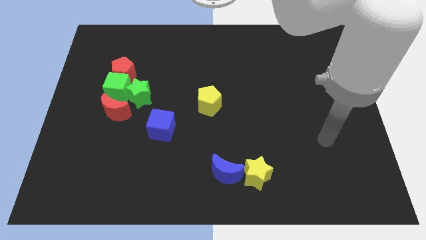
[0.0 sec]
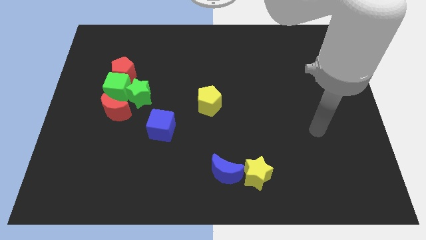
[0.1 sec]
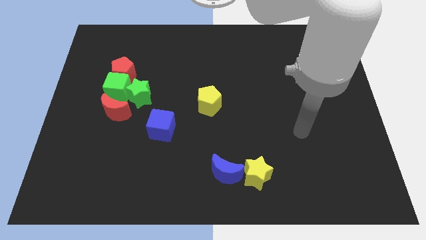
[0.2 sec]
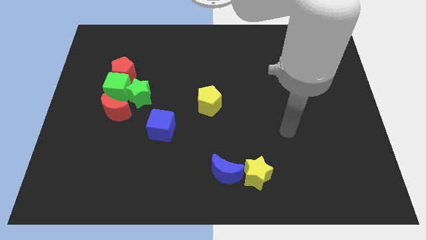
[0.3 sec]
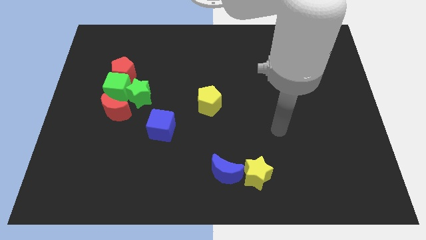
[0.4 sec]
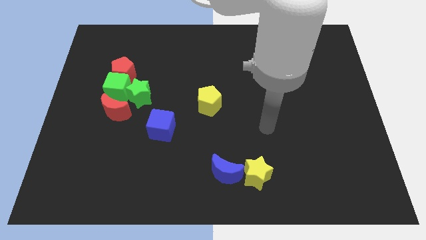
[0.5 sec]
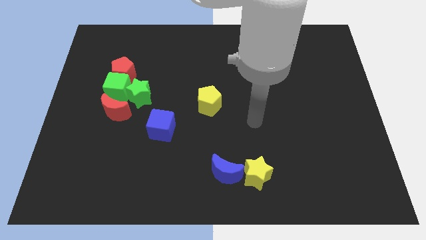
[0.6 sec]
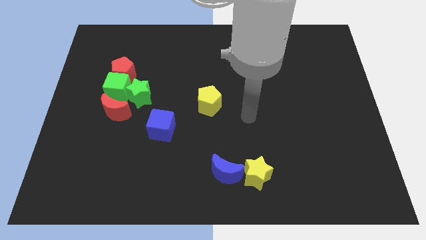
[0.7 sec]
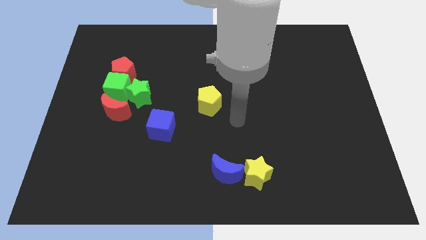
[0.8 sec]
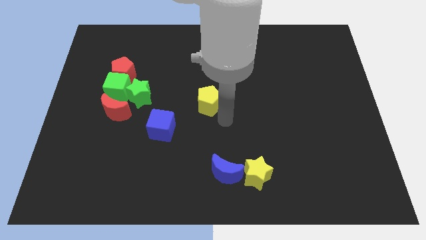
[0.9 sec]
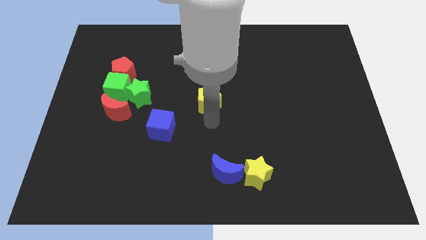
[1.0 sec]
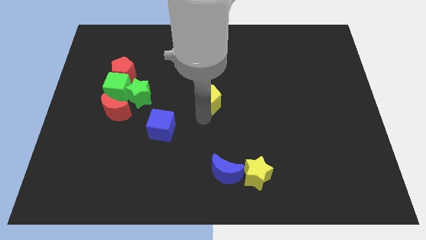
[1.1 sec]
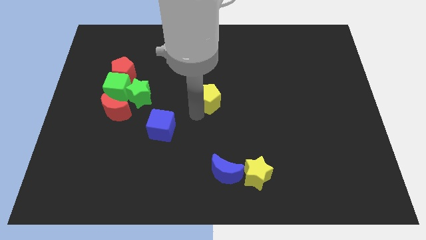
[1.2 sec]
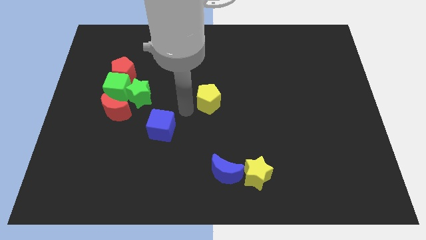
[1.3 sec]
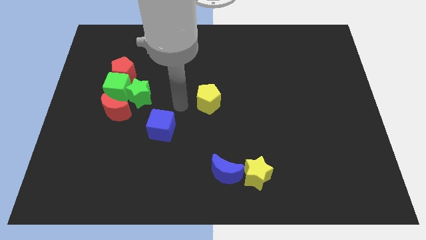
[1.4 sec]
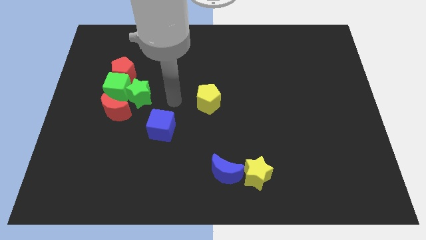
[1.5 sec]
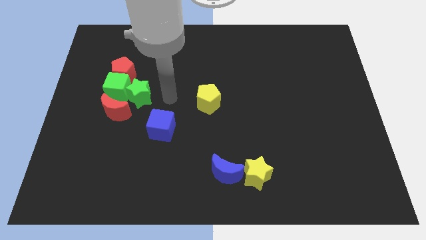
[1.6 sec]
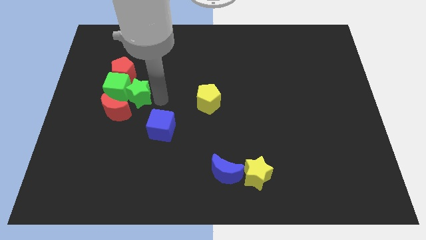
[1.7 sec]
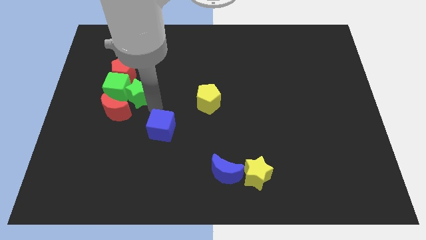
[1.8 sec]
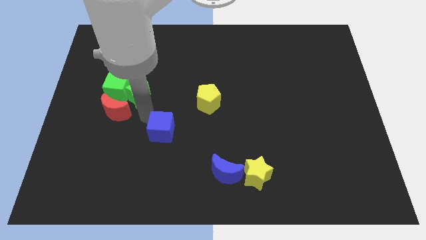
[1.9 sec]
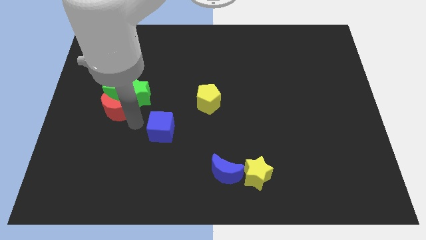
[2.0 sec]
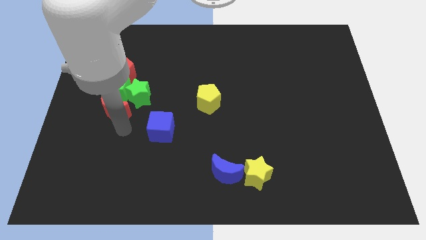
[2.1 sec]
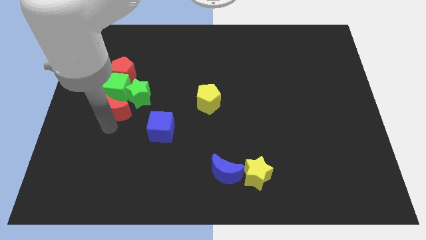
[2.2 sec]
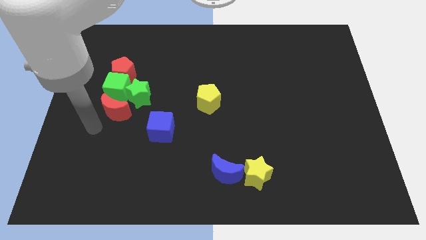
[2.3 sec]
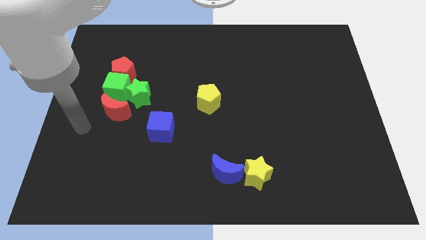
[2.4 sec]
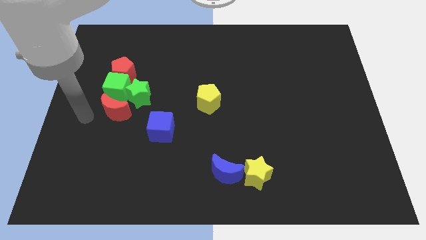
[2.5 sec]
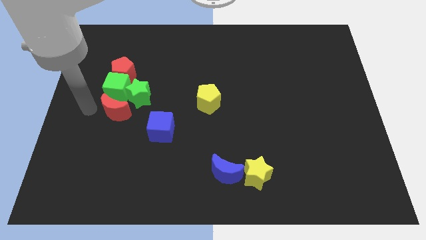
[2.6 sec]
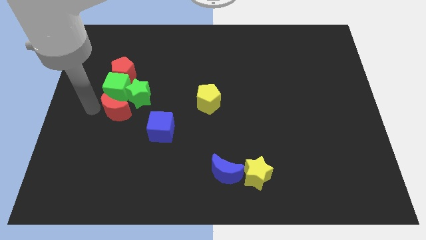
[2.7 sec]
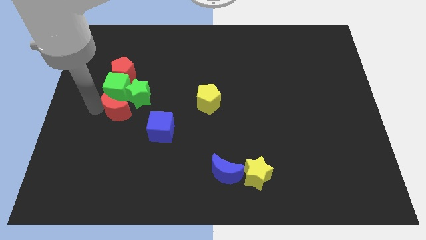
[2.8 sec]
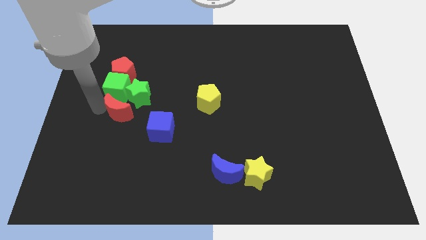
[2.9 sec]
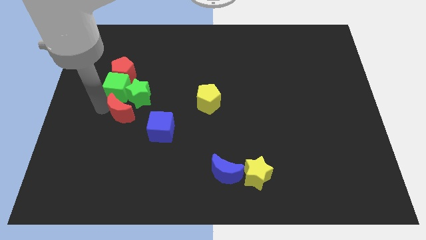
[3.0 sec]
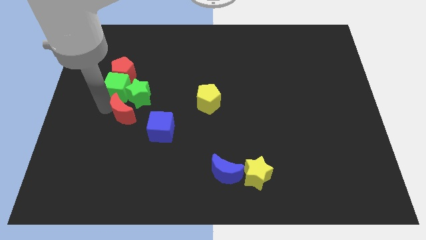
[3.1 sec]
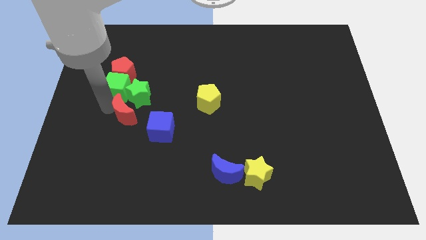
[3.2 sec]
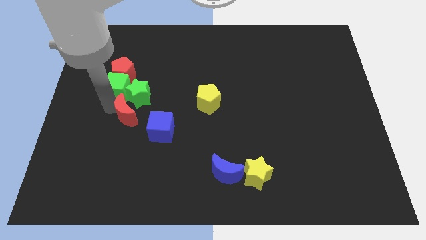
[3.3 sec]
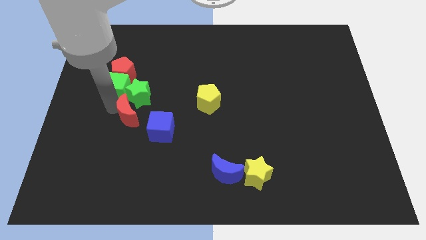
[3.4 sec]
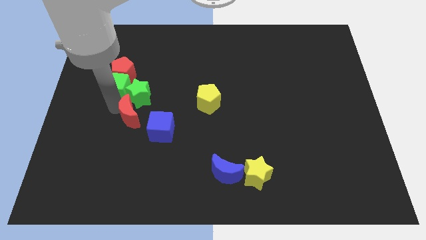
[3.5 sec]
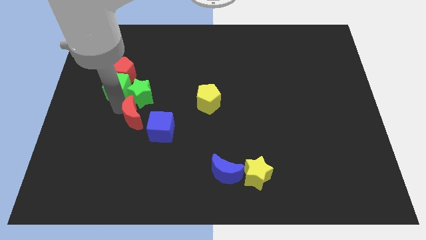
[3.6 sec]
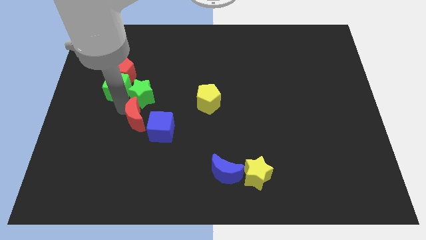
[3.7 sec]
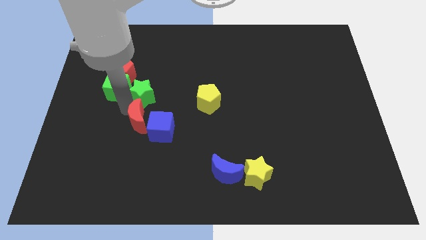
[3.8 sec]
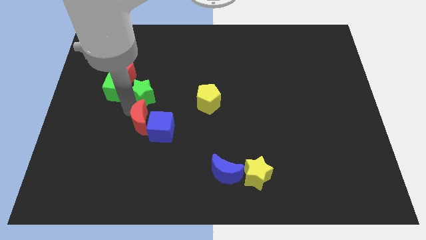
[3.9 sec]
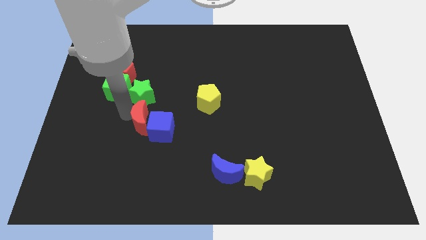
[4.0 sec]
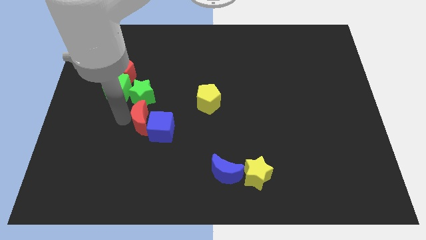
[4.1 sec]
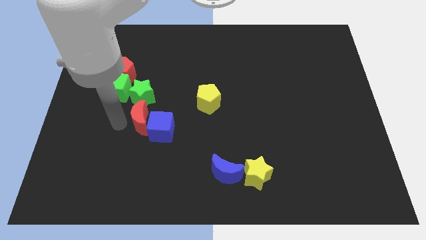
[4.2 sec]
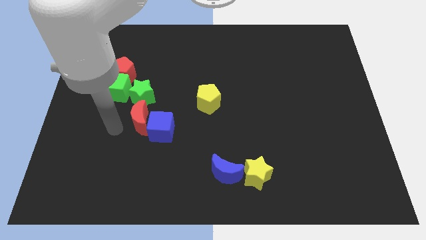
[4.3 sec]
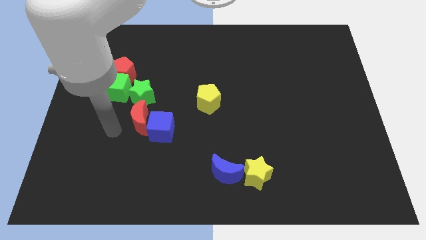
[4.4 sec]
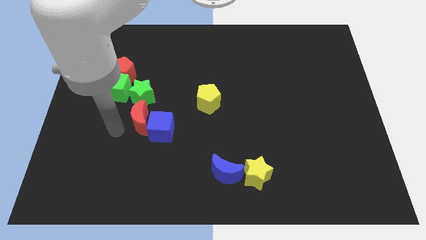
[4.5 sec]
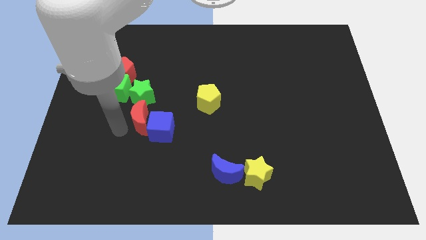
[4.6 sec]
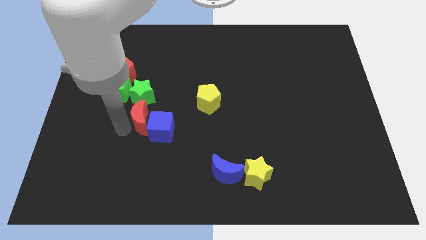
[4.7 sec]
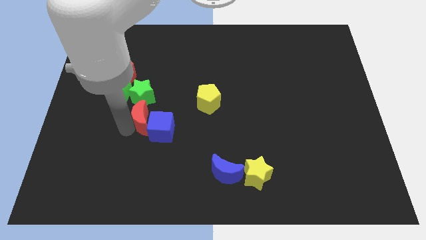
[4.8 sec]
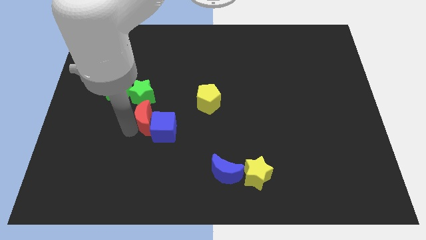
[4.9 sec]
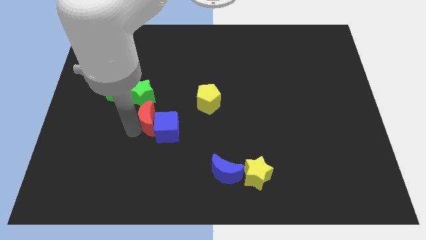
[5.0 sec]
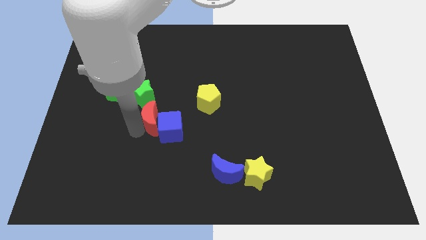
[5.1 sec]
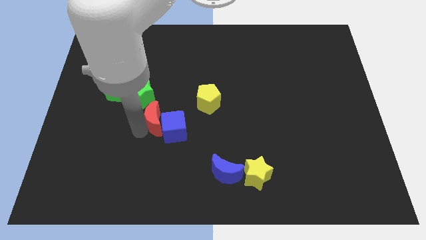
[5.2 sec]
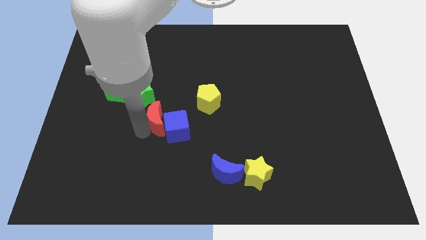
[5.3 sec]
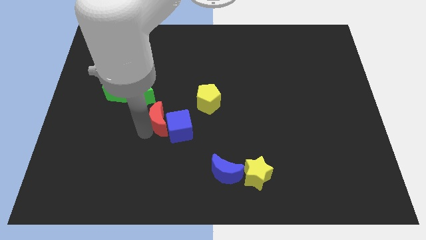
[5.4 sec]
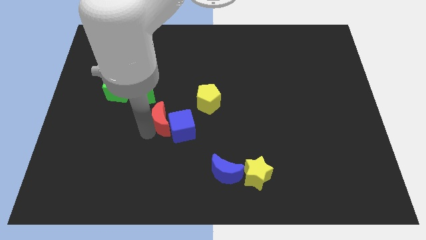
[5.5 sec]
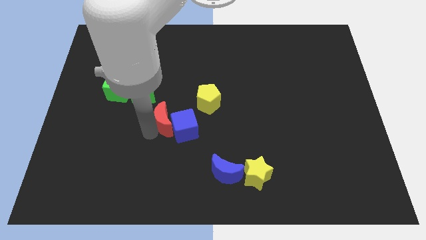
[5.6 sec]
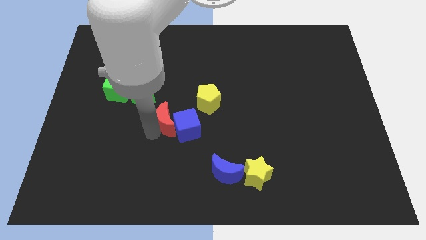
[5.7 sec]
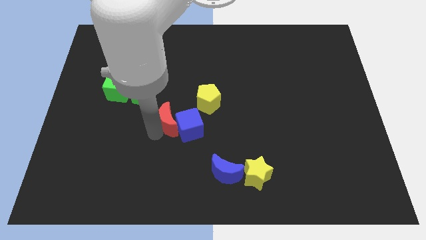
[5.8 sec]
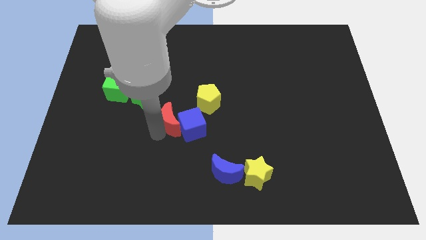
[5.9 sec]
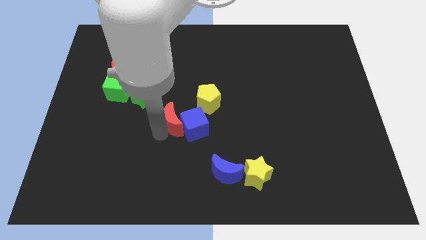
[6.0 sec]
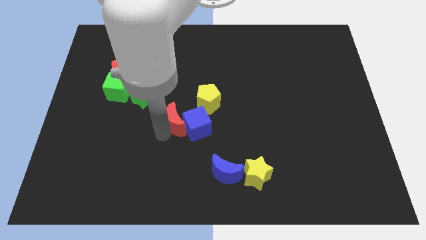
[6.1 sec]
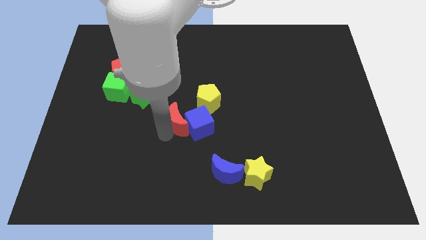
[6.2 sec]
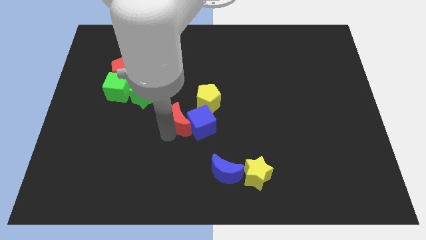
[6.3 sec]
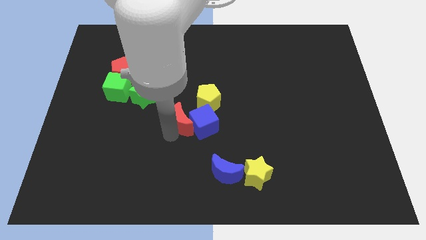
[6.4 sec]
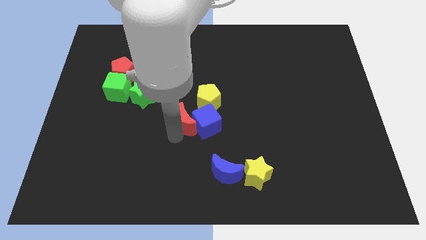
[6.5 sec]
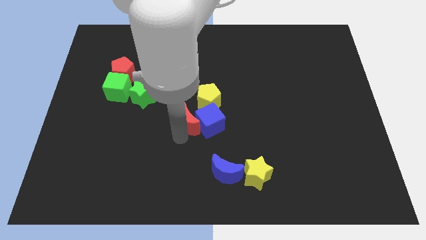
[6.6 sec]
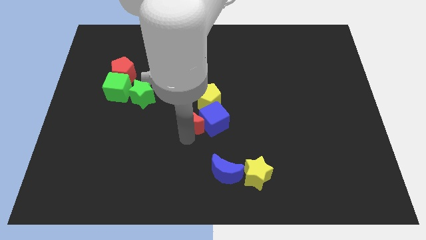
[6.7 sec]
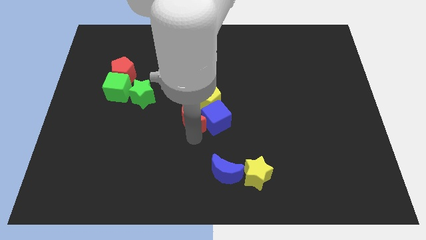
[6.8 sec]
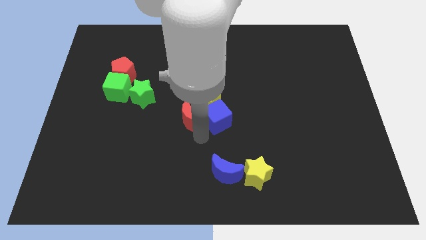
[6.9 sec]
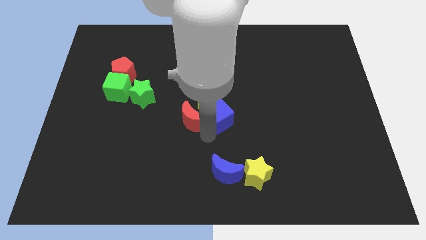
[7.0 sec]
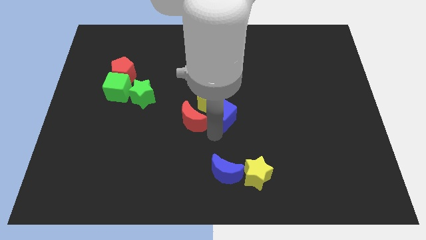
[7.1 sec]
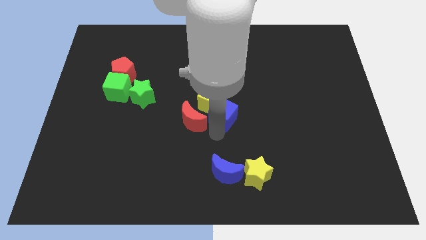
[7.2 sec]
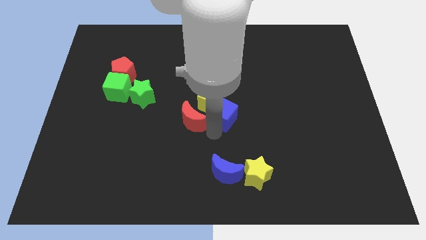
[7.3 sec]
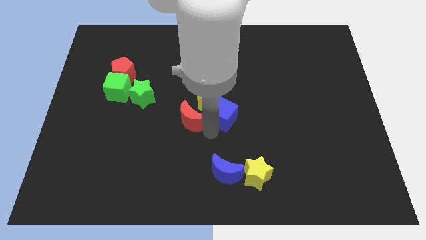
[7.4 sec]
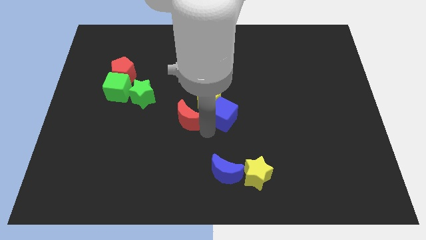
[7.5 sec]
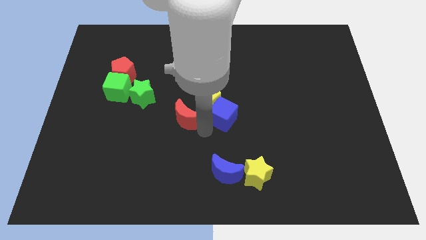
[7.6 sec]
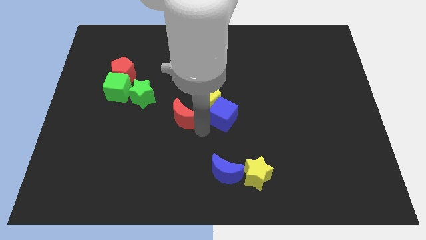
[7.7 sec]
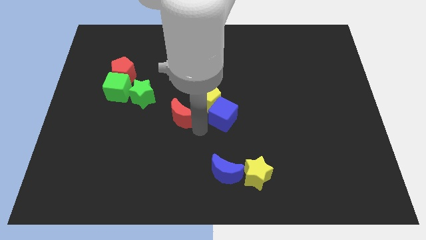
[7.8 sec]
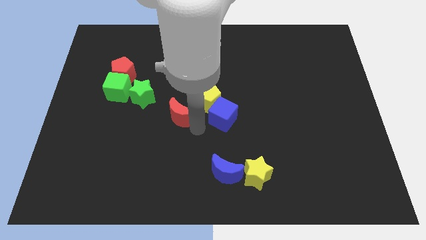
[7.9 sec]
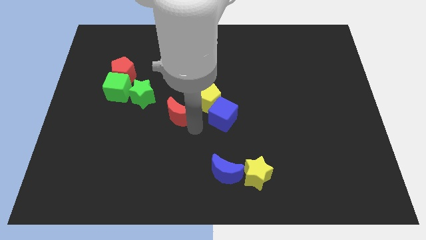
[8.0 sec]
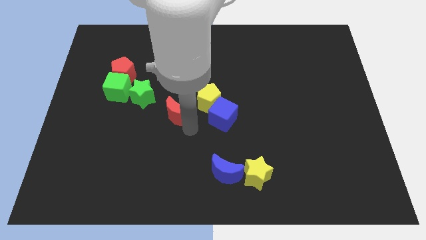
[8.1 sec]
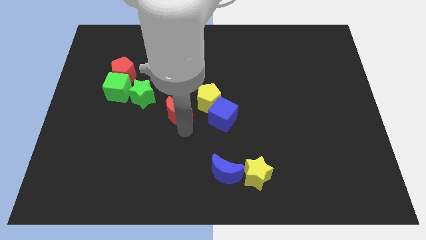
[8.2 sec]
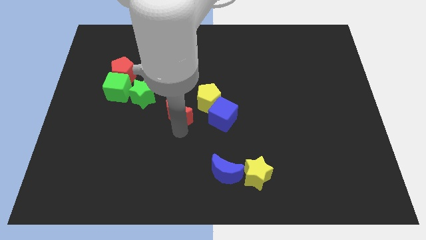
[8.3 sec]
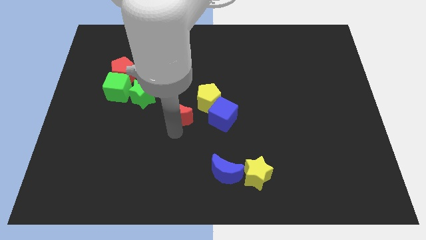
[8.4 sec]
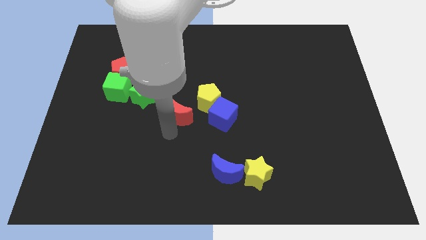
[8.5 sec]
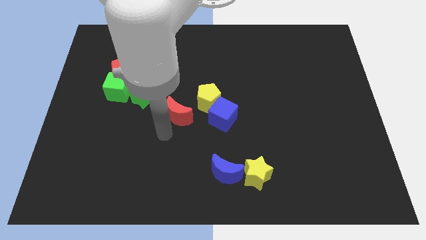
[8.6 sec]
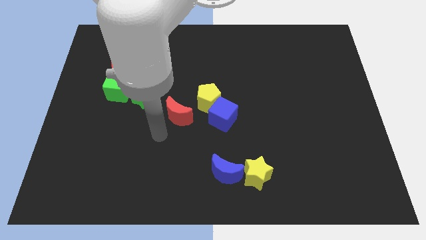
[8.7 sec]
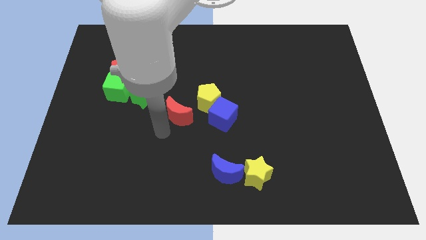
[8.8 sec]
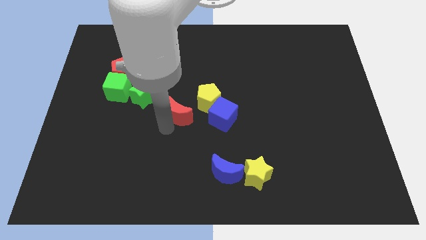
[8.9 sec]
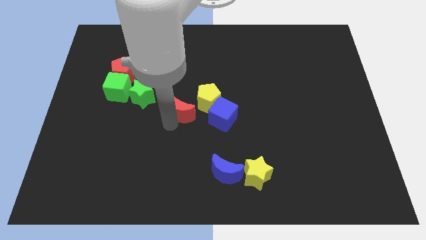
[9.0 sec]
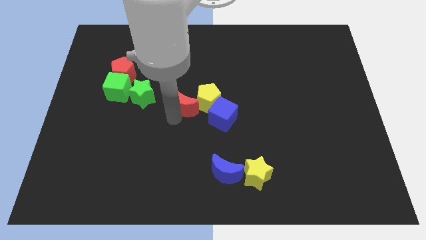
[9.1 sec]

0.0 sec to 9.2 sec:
move the red moon to the yellow pentagon
